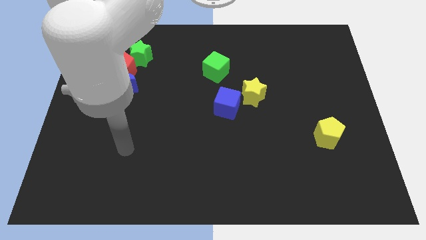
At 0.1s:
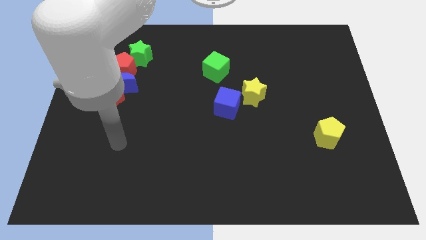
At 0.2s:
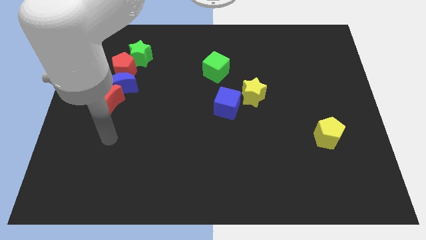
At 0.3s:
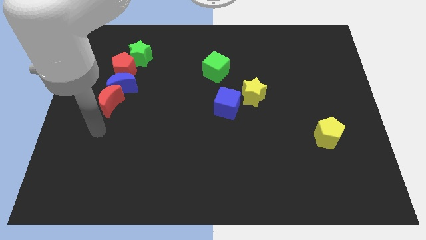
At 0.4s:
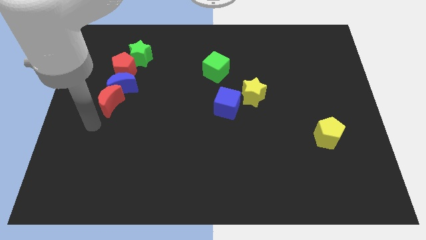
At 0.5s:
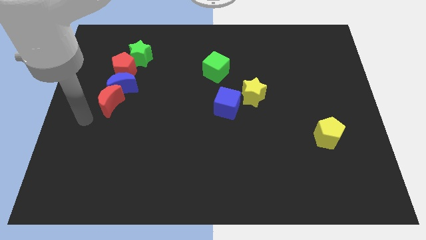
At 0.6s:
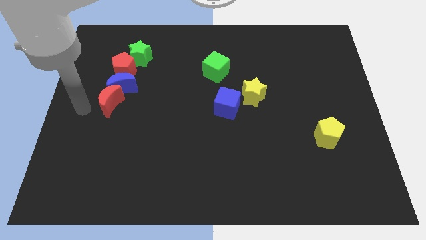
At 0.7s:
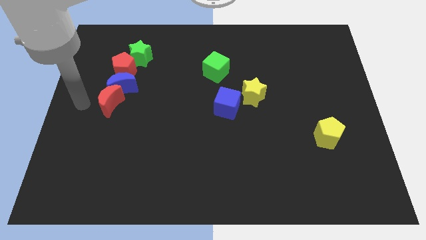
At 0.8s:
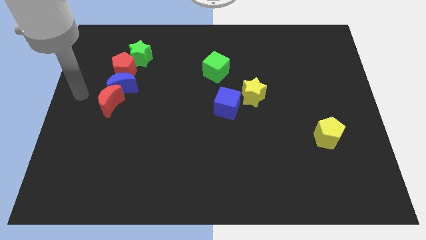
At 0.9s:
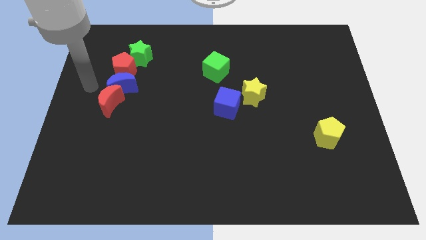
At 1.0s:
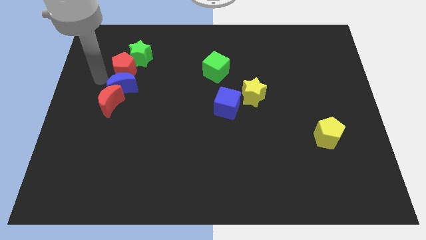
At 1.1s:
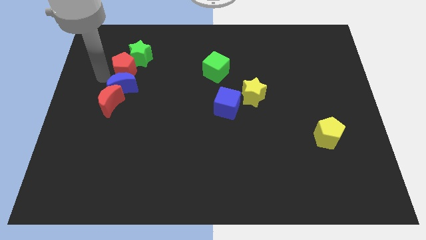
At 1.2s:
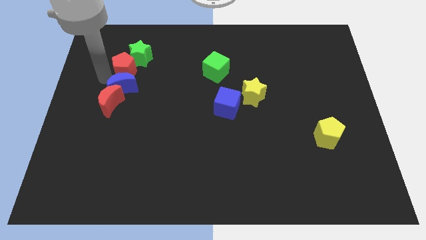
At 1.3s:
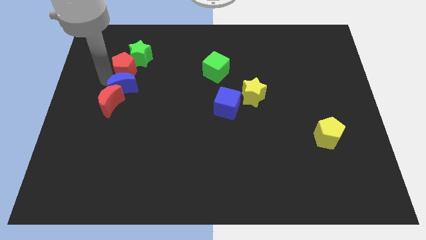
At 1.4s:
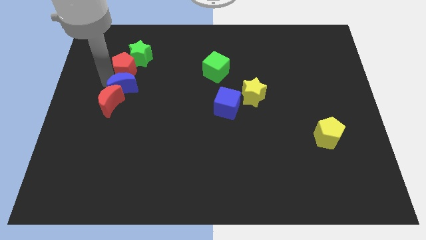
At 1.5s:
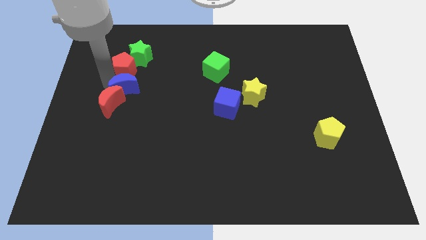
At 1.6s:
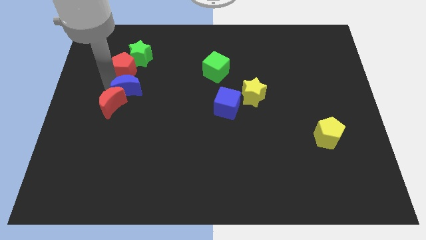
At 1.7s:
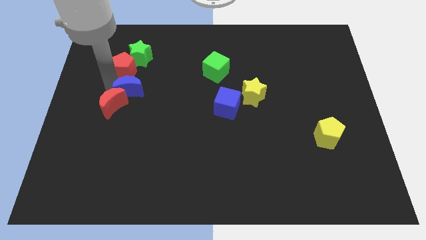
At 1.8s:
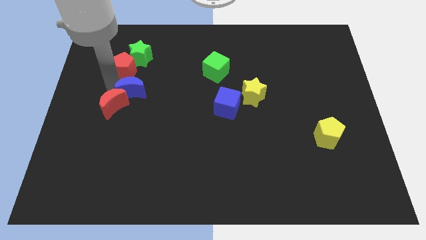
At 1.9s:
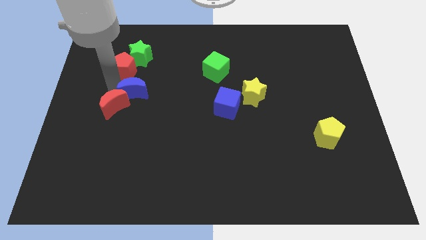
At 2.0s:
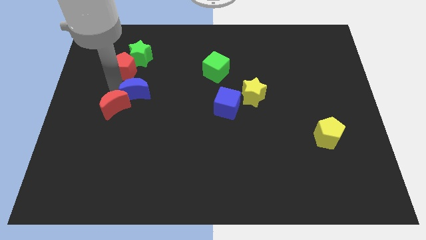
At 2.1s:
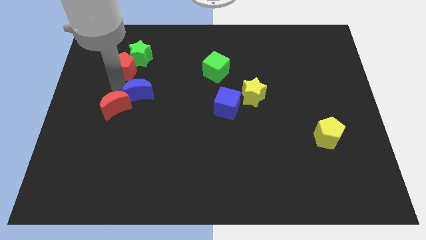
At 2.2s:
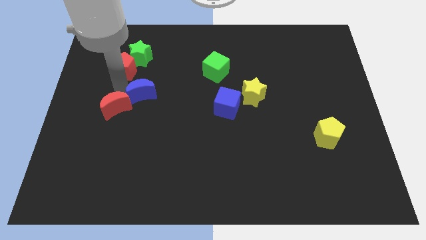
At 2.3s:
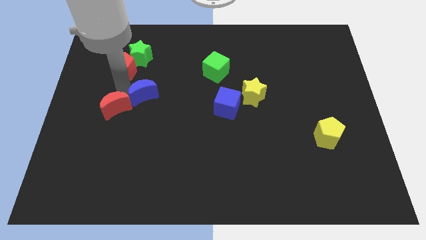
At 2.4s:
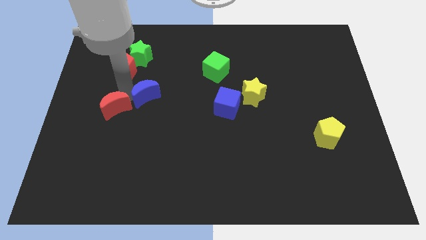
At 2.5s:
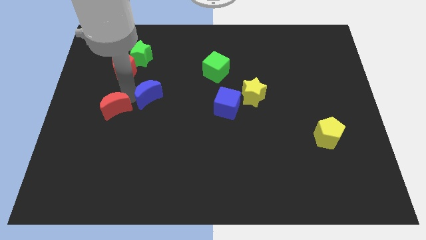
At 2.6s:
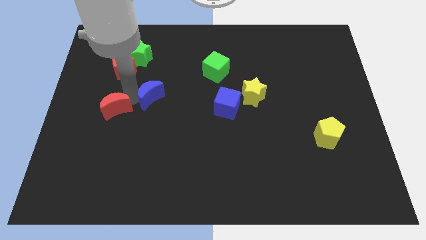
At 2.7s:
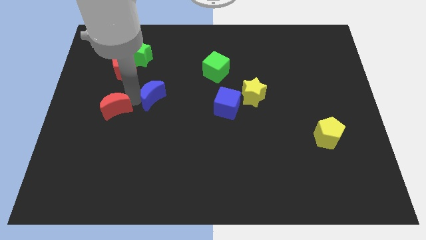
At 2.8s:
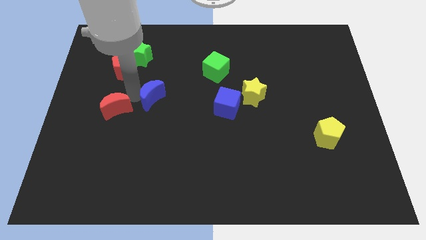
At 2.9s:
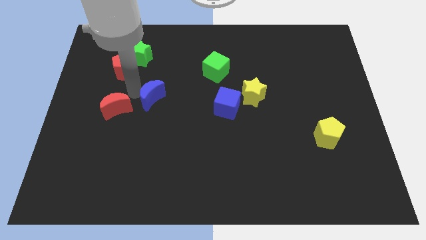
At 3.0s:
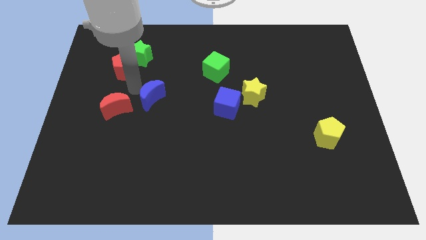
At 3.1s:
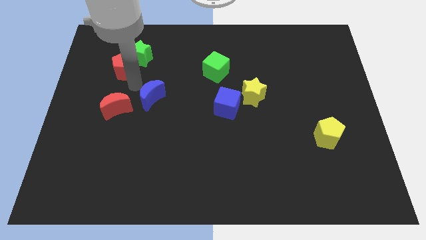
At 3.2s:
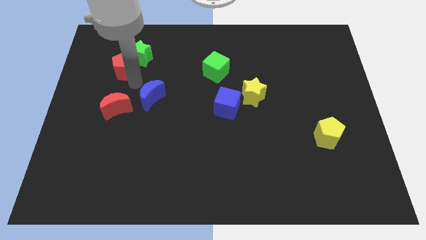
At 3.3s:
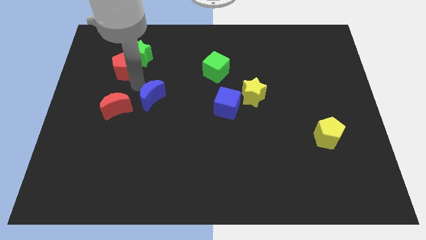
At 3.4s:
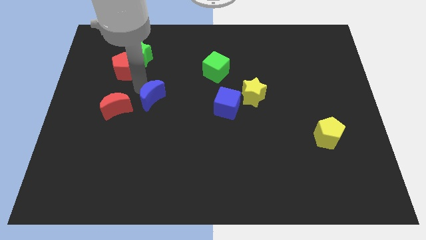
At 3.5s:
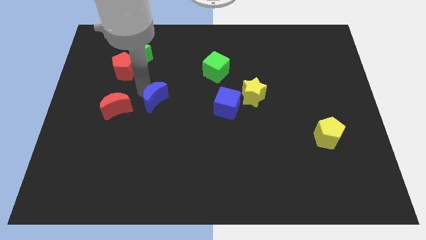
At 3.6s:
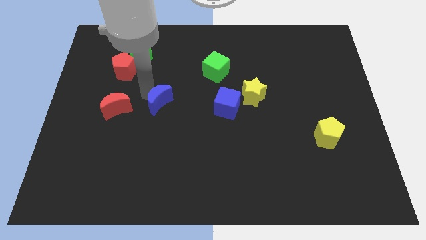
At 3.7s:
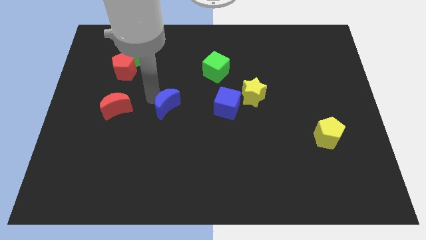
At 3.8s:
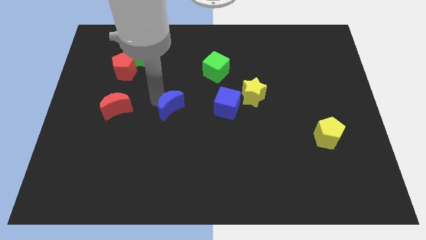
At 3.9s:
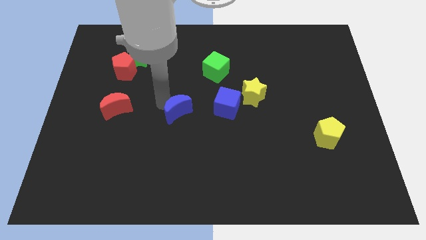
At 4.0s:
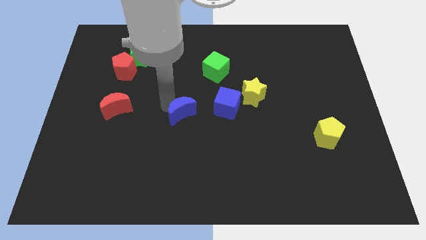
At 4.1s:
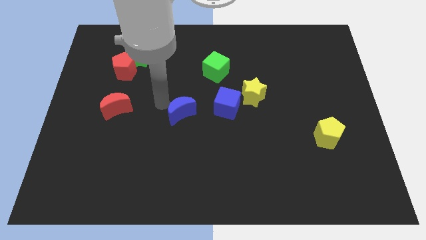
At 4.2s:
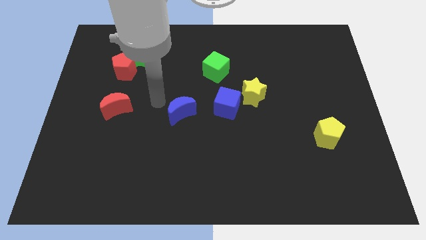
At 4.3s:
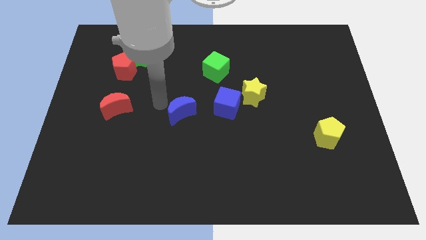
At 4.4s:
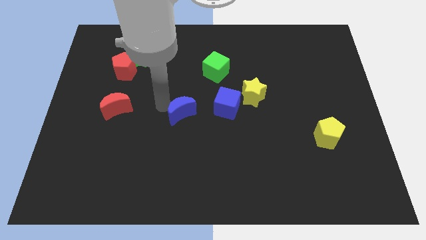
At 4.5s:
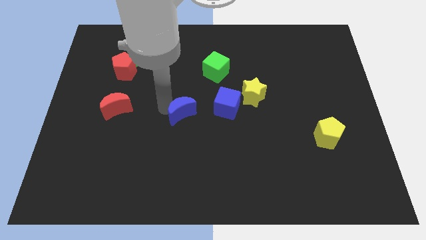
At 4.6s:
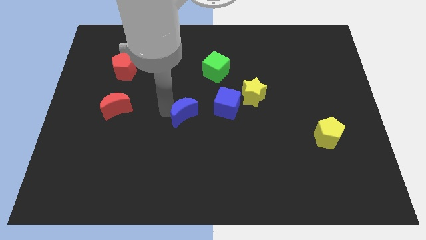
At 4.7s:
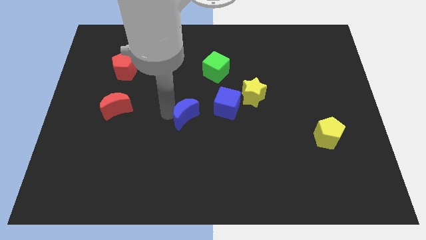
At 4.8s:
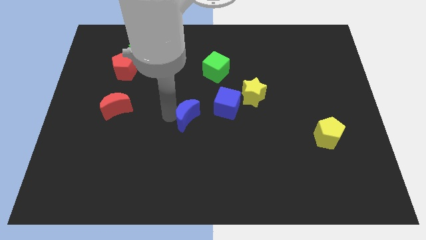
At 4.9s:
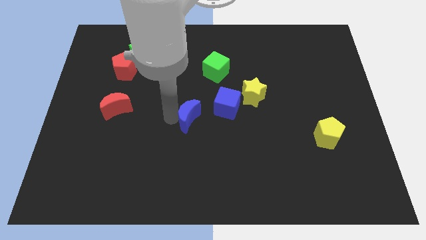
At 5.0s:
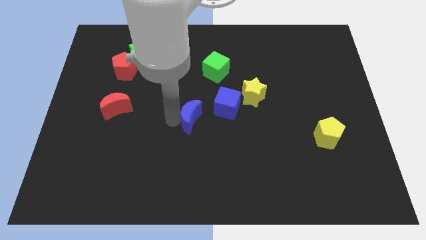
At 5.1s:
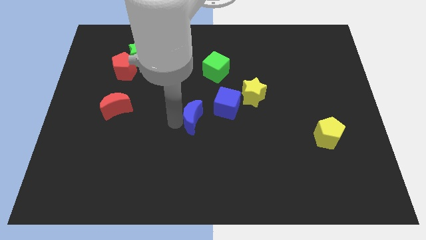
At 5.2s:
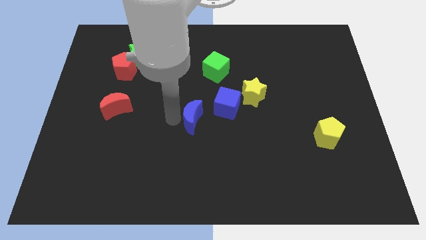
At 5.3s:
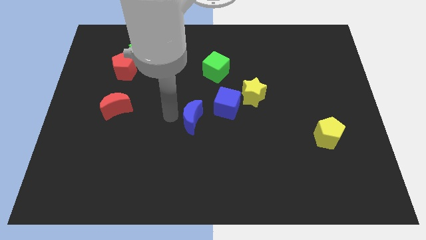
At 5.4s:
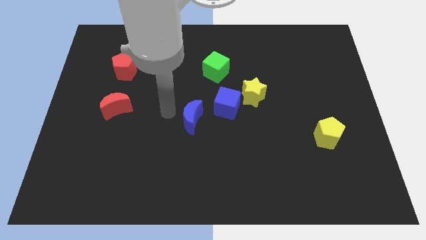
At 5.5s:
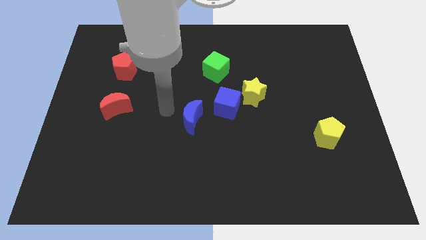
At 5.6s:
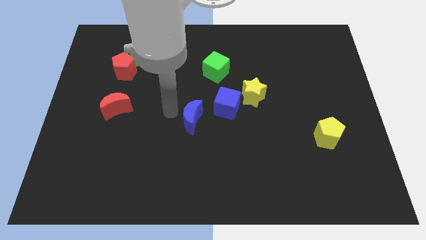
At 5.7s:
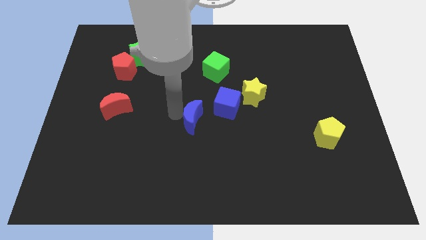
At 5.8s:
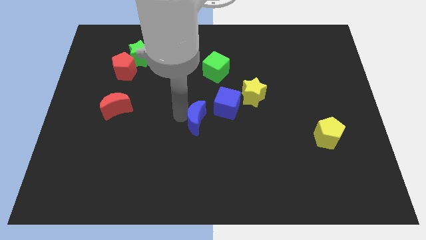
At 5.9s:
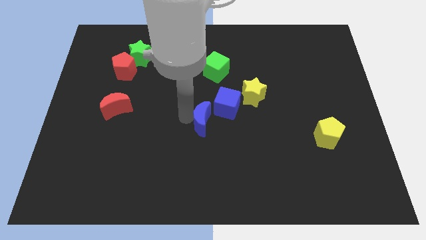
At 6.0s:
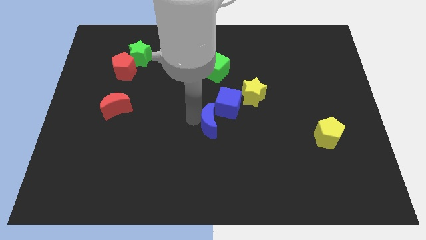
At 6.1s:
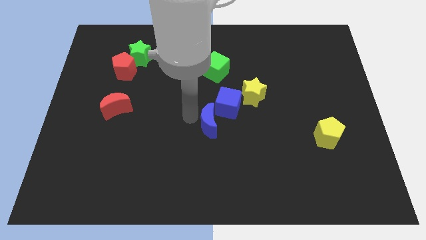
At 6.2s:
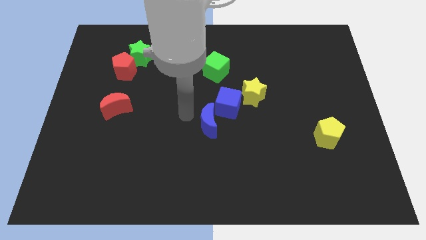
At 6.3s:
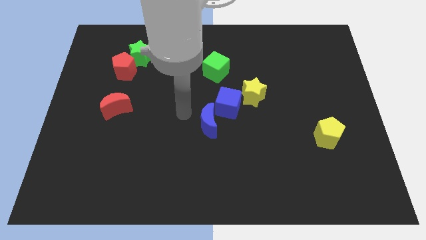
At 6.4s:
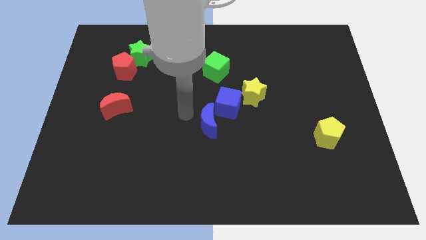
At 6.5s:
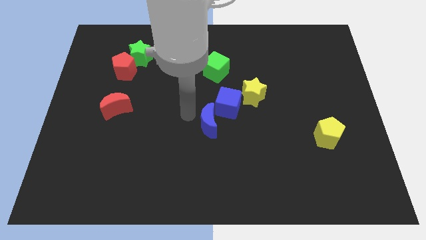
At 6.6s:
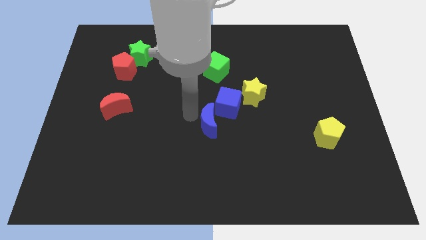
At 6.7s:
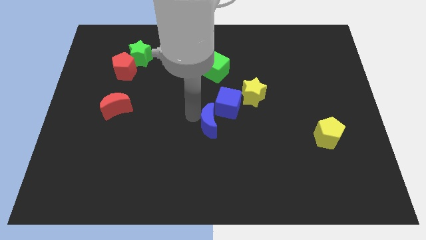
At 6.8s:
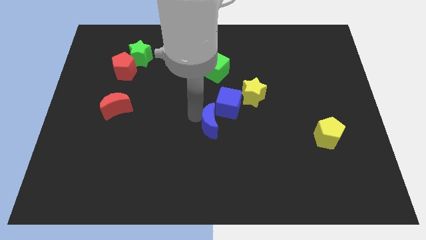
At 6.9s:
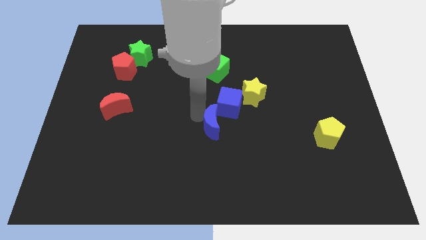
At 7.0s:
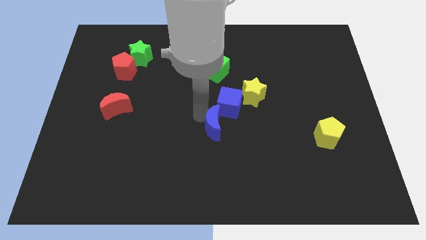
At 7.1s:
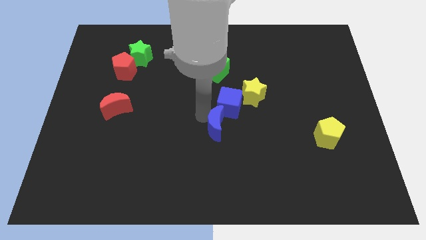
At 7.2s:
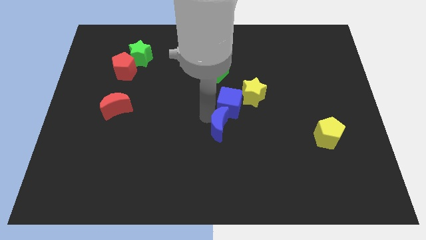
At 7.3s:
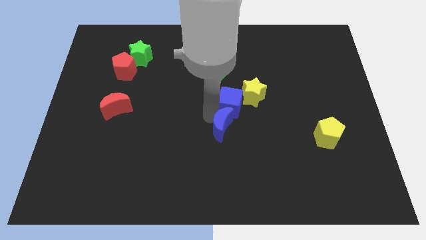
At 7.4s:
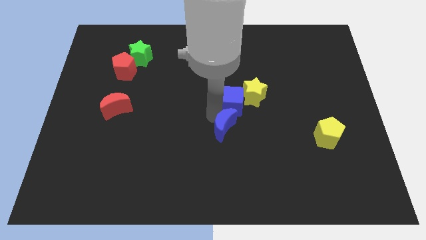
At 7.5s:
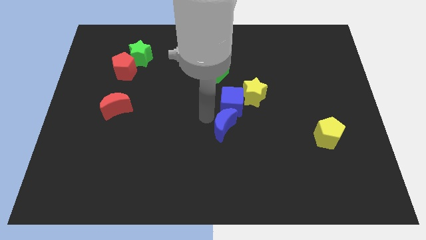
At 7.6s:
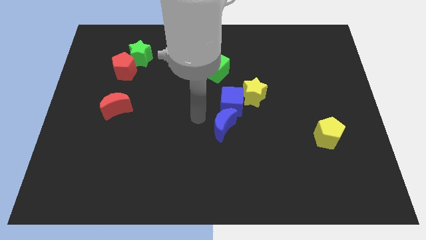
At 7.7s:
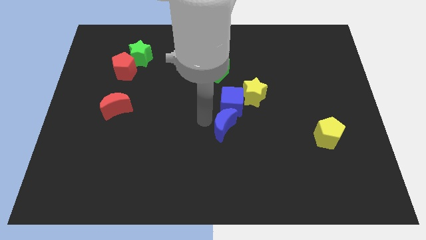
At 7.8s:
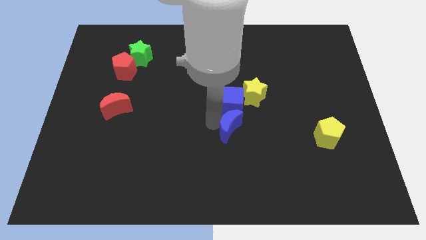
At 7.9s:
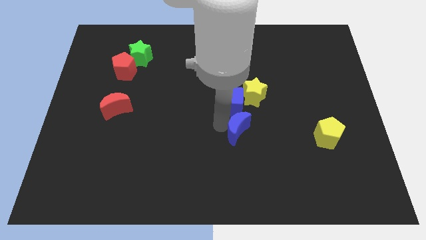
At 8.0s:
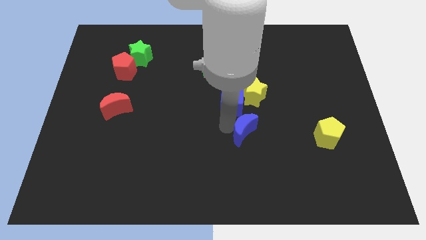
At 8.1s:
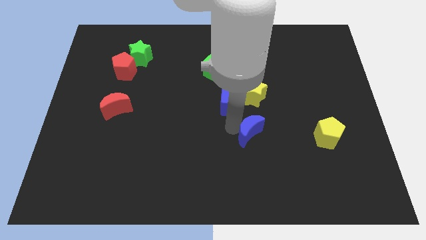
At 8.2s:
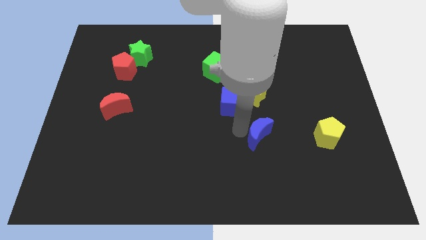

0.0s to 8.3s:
push the blue moon left of the yellow pentagon
